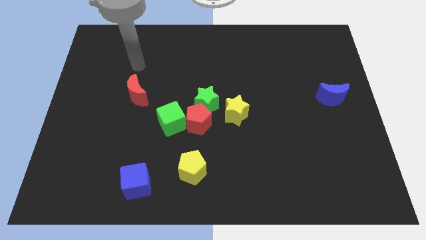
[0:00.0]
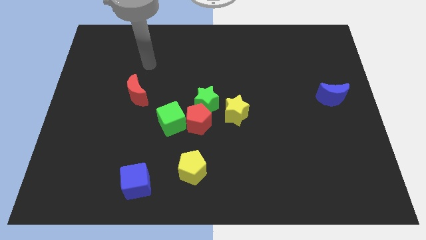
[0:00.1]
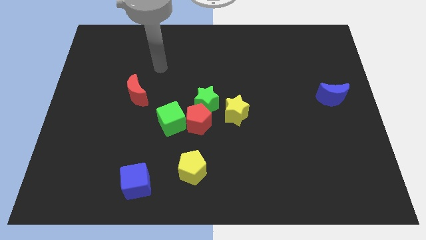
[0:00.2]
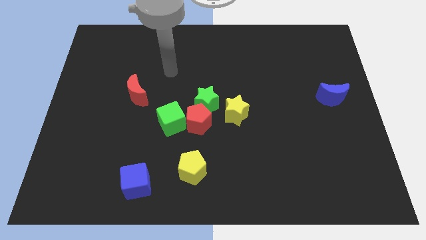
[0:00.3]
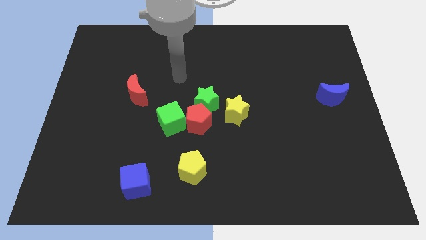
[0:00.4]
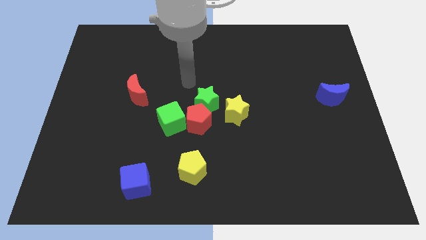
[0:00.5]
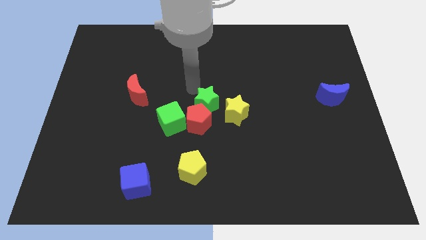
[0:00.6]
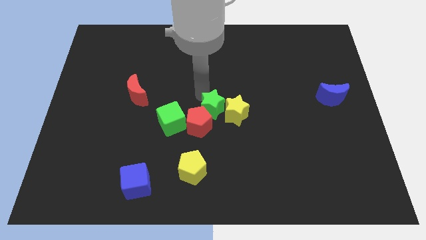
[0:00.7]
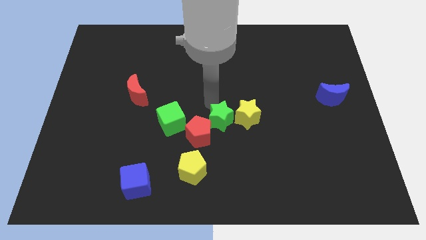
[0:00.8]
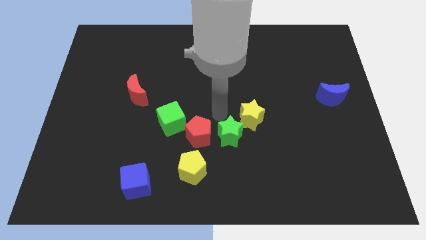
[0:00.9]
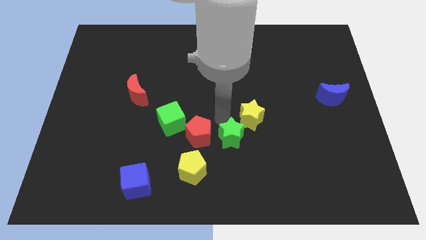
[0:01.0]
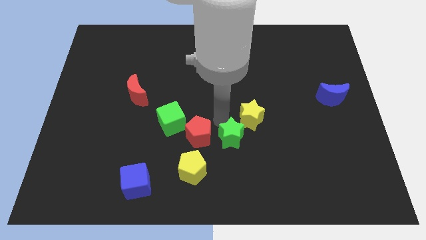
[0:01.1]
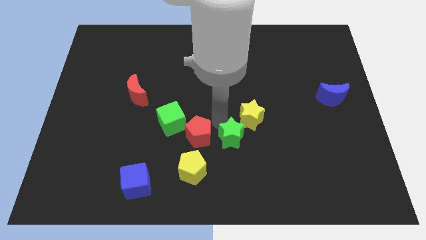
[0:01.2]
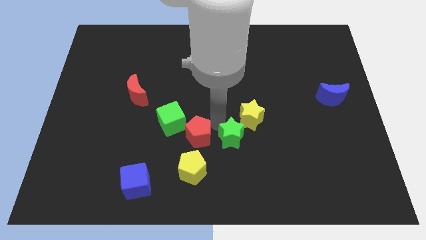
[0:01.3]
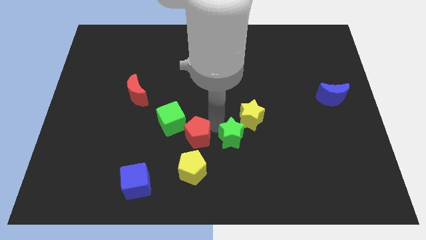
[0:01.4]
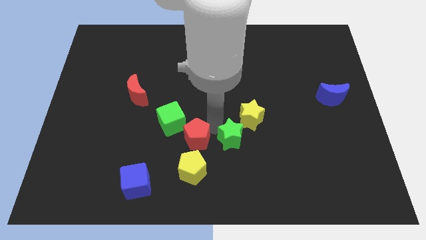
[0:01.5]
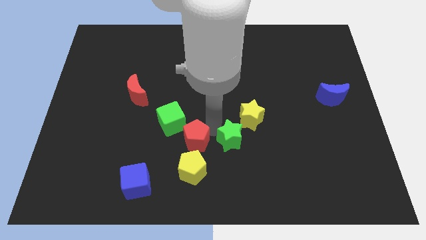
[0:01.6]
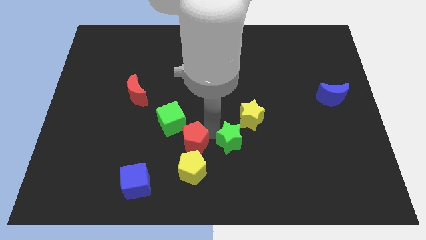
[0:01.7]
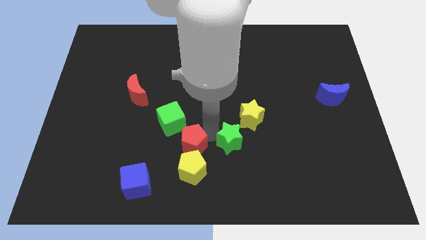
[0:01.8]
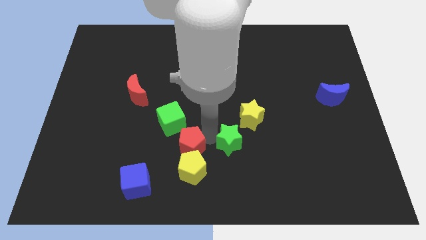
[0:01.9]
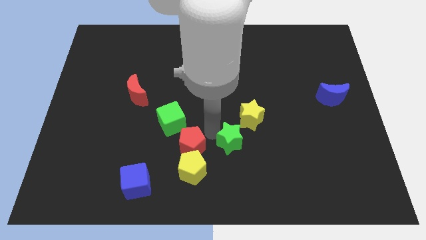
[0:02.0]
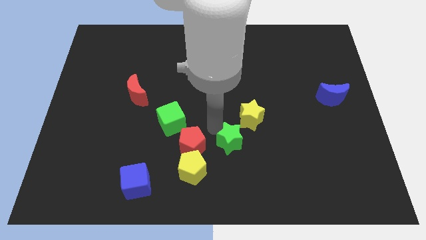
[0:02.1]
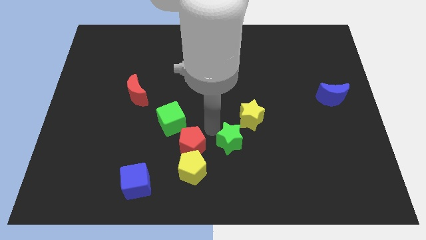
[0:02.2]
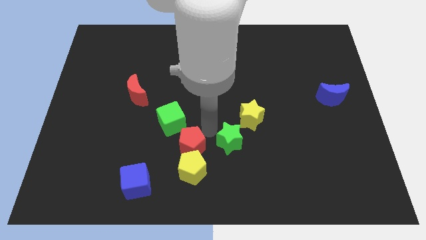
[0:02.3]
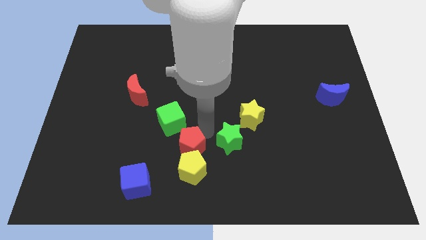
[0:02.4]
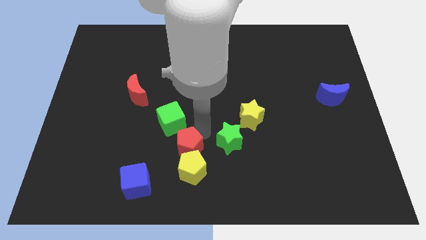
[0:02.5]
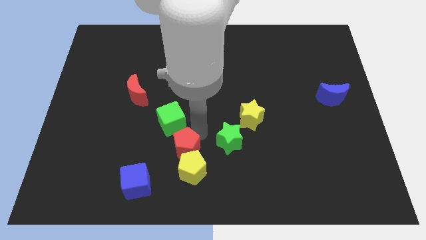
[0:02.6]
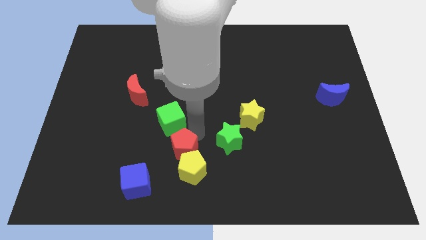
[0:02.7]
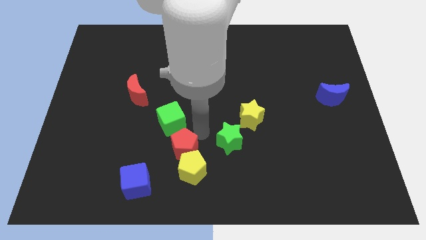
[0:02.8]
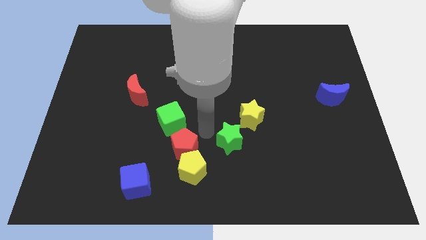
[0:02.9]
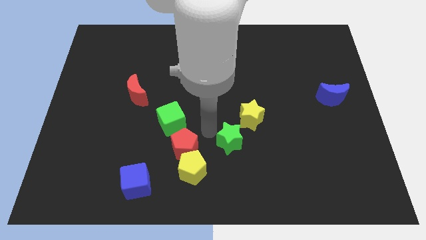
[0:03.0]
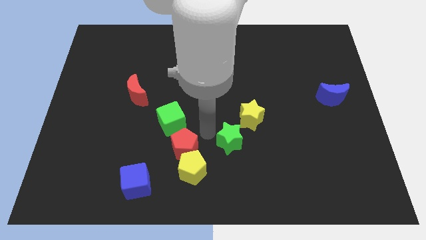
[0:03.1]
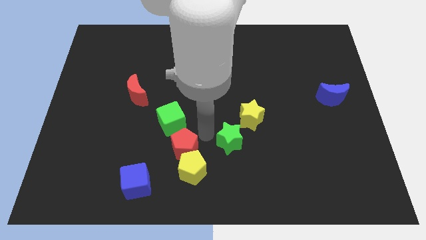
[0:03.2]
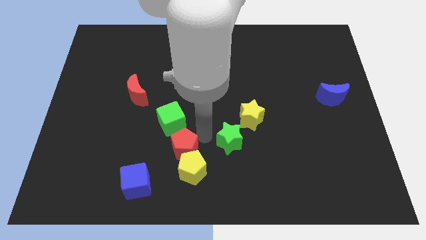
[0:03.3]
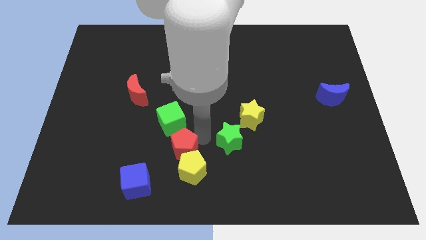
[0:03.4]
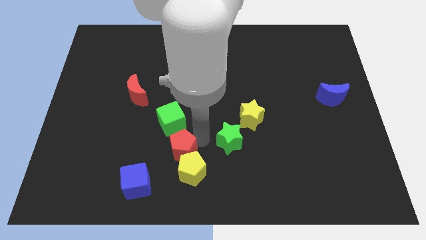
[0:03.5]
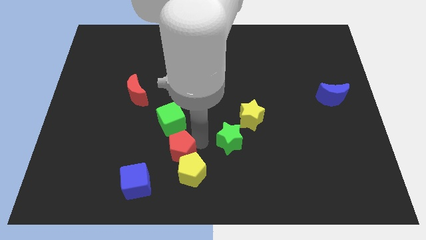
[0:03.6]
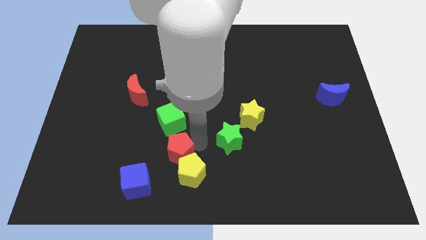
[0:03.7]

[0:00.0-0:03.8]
pull the red pentagon apart from the group

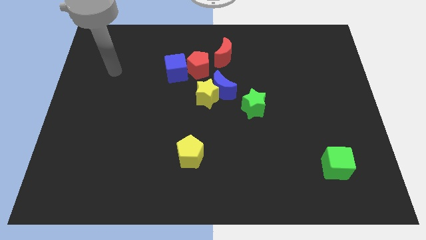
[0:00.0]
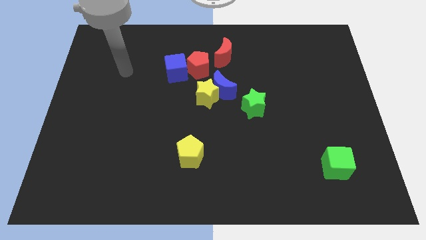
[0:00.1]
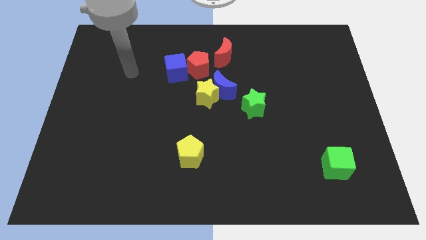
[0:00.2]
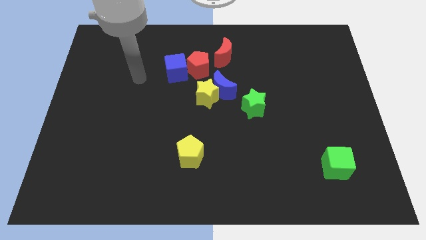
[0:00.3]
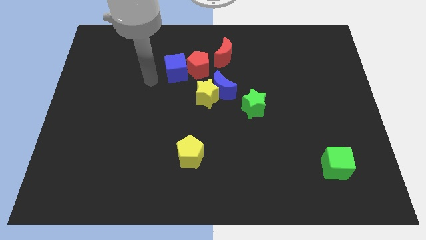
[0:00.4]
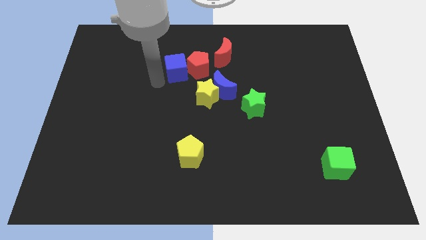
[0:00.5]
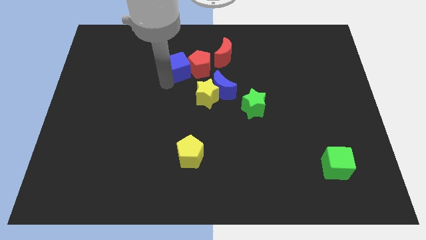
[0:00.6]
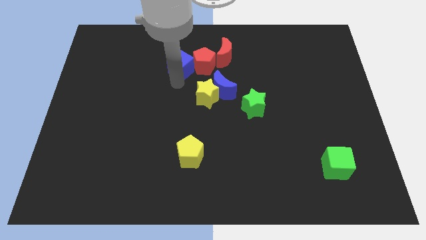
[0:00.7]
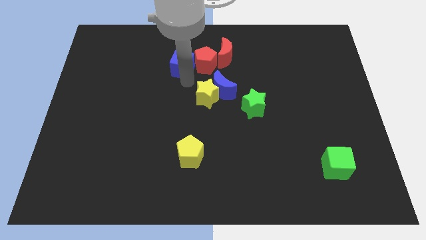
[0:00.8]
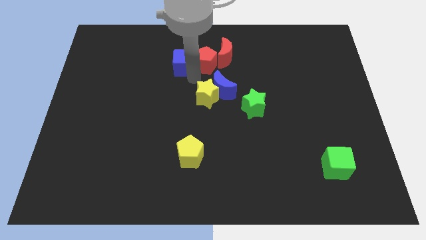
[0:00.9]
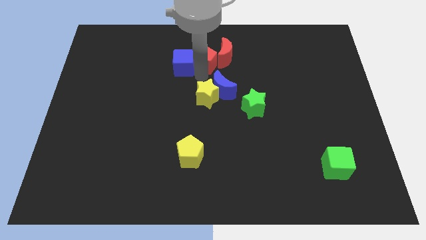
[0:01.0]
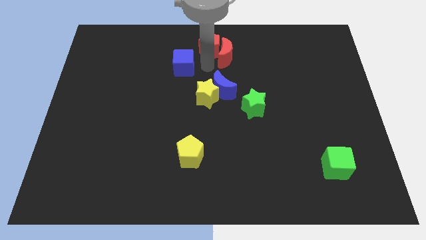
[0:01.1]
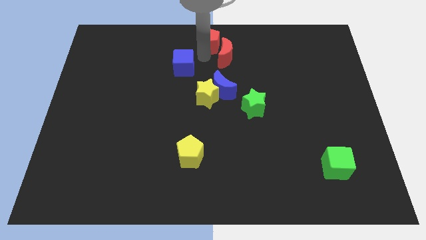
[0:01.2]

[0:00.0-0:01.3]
move the blue cube away from the red pentagon

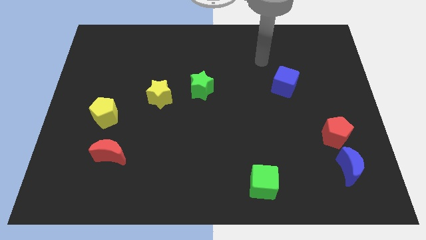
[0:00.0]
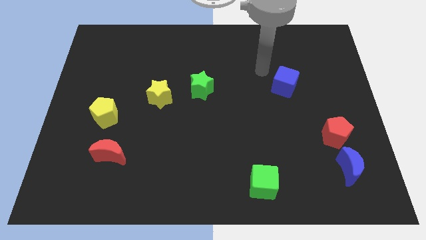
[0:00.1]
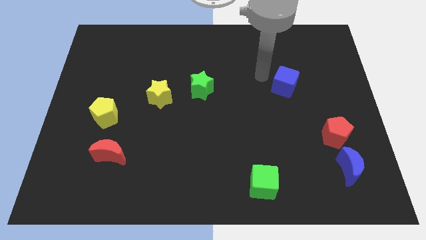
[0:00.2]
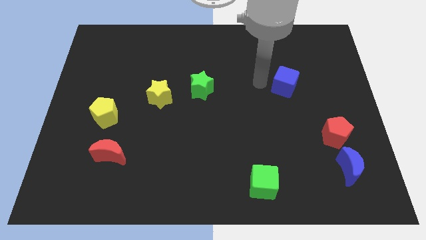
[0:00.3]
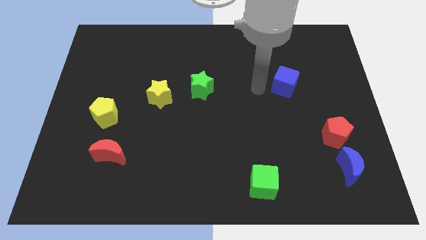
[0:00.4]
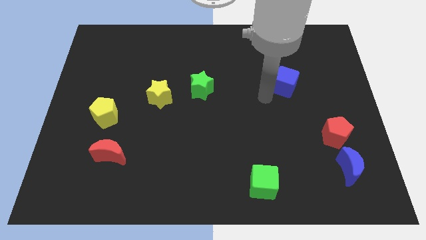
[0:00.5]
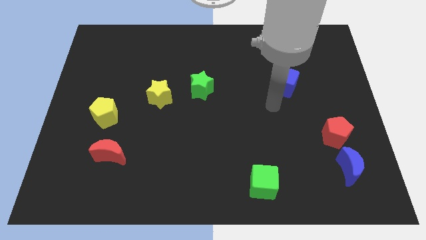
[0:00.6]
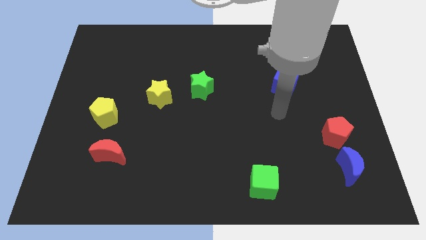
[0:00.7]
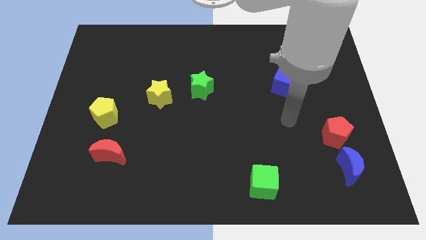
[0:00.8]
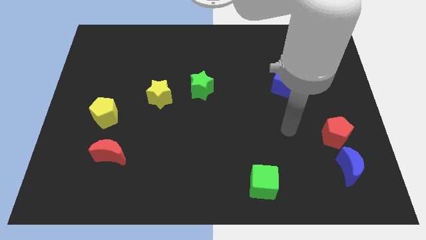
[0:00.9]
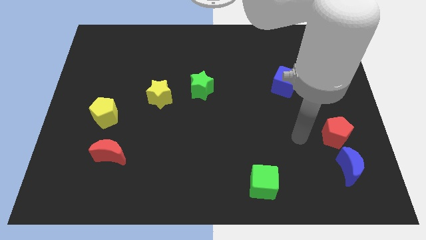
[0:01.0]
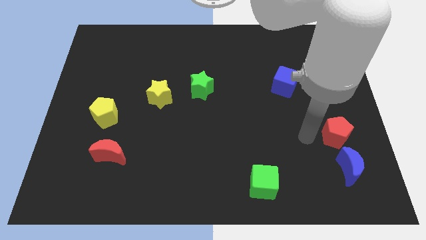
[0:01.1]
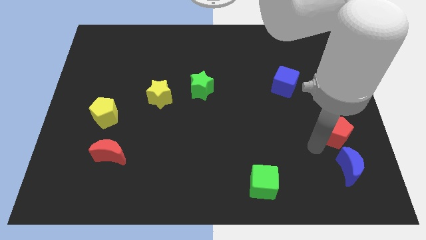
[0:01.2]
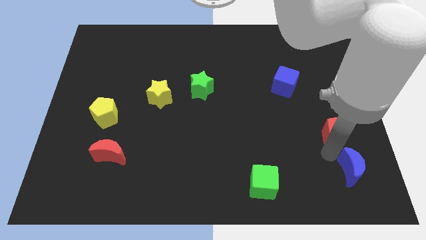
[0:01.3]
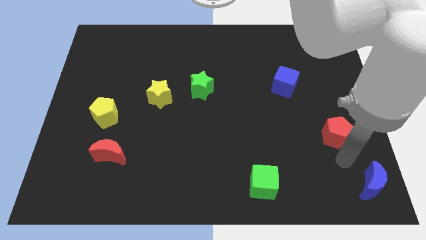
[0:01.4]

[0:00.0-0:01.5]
pull the red pentagon apart from the blue moon

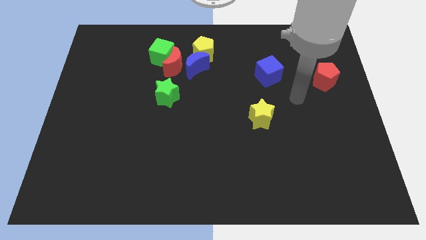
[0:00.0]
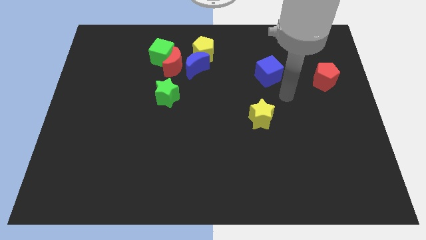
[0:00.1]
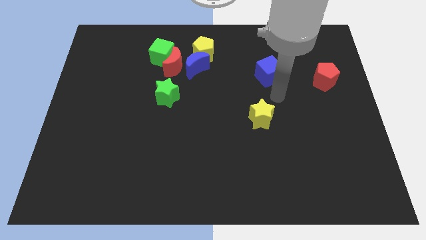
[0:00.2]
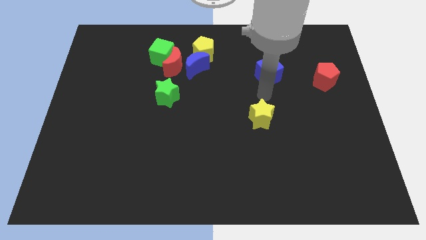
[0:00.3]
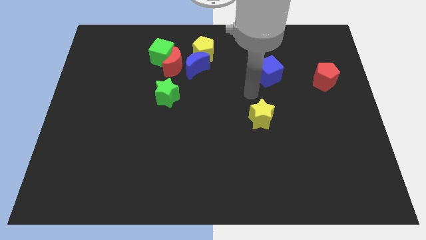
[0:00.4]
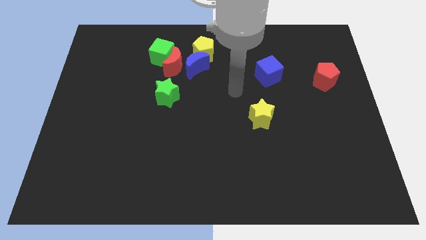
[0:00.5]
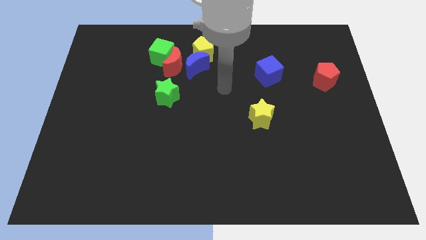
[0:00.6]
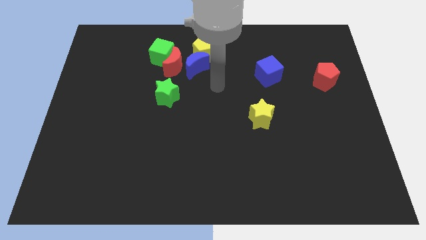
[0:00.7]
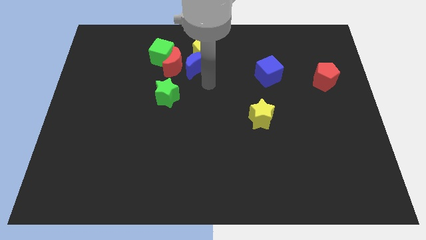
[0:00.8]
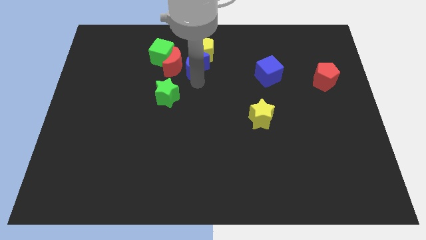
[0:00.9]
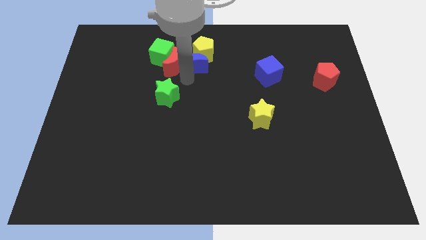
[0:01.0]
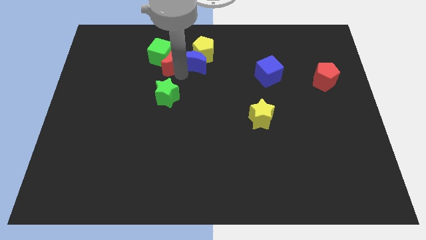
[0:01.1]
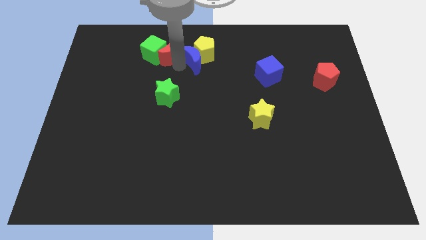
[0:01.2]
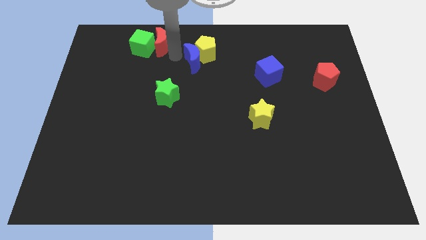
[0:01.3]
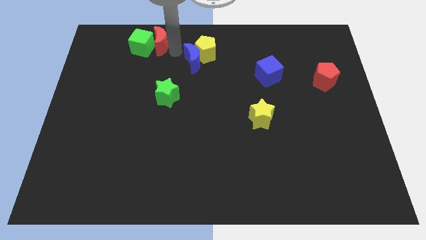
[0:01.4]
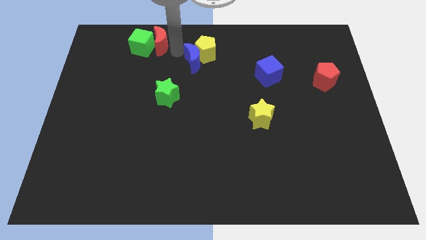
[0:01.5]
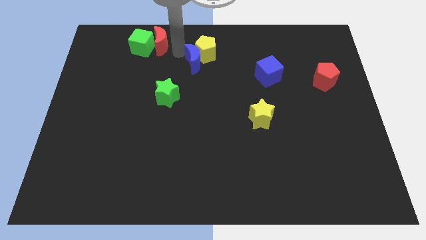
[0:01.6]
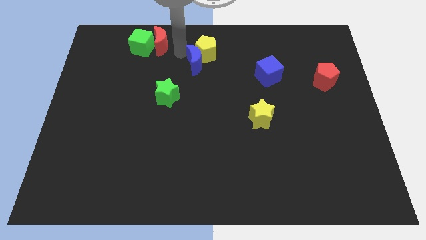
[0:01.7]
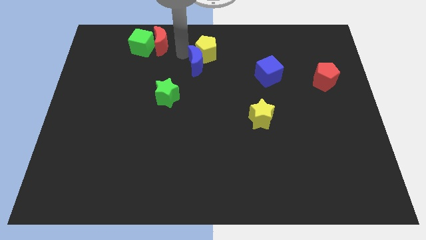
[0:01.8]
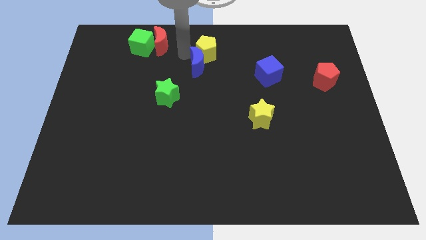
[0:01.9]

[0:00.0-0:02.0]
move the blue moon away from the clump

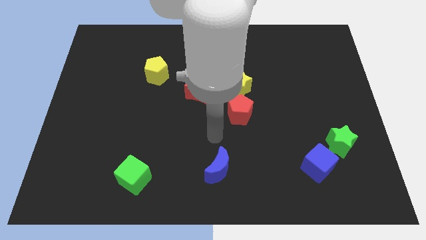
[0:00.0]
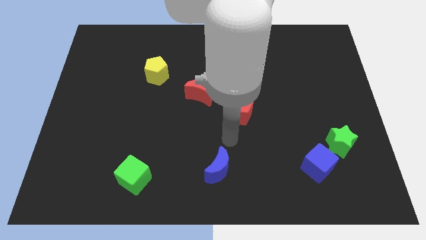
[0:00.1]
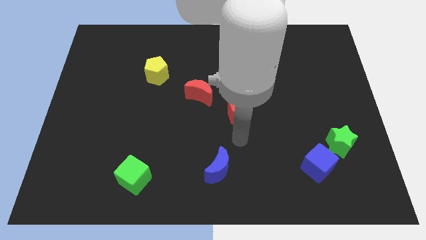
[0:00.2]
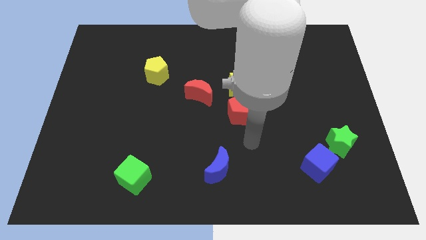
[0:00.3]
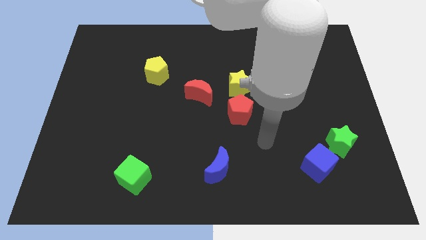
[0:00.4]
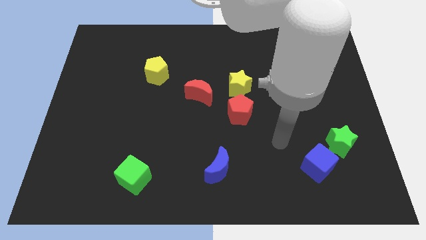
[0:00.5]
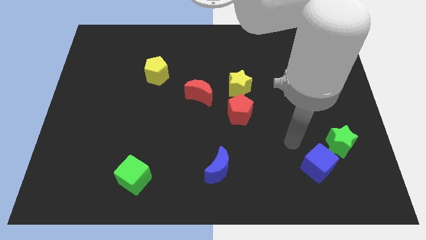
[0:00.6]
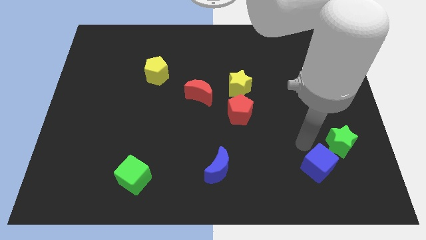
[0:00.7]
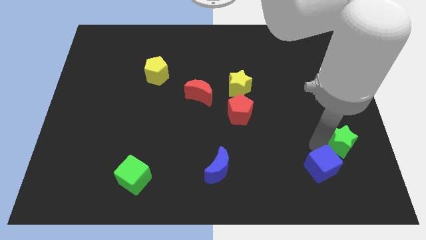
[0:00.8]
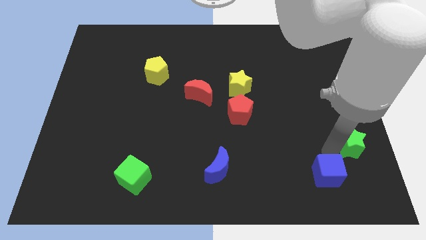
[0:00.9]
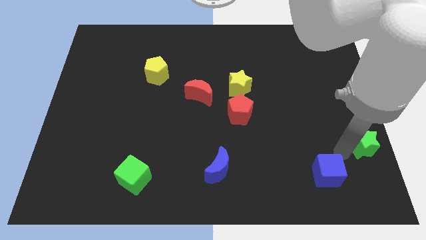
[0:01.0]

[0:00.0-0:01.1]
move the blue cube away from the green star
